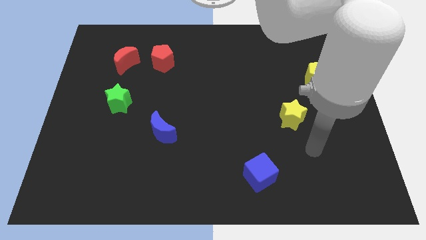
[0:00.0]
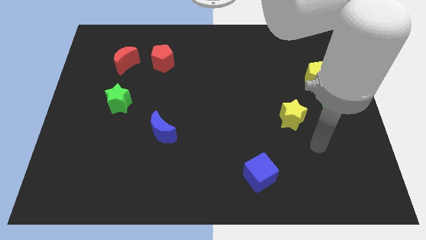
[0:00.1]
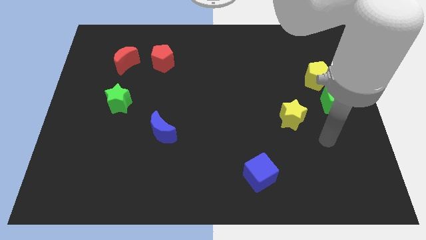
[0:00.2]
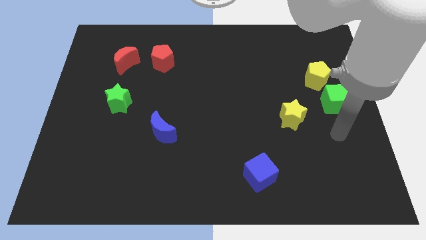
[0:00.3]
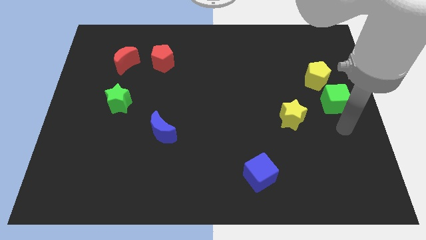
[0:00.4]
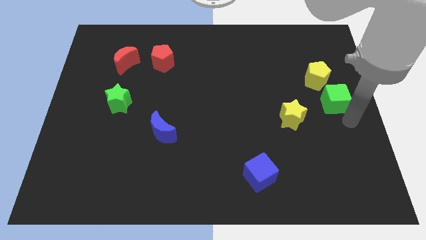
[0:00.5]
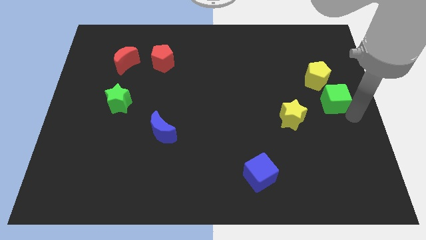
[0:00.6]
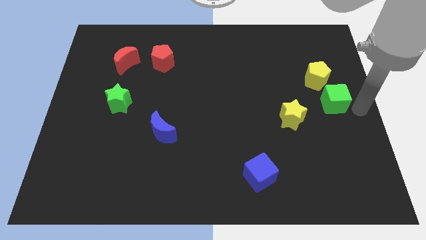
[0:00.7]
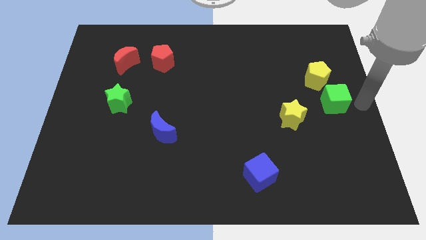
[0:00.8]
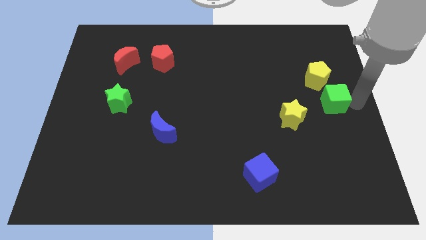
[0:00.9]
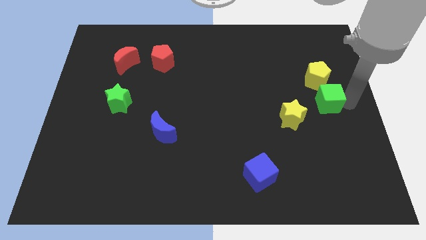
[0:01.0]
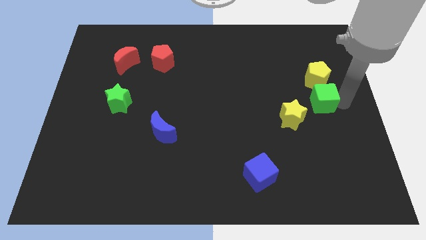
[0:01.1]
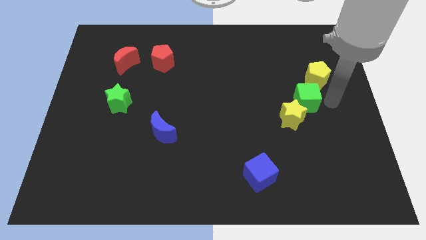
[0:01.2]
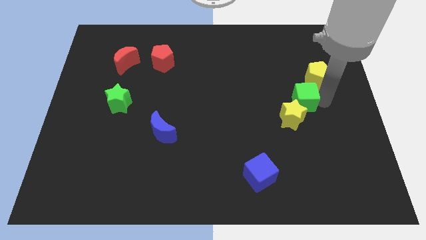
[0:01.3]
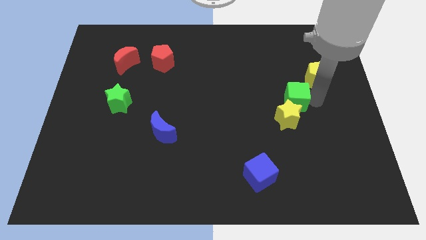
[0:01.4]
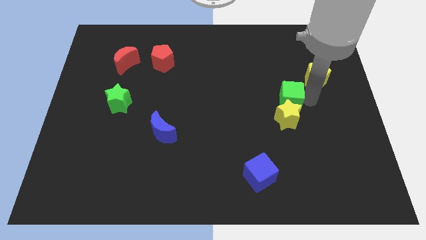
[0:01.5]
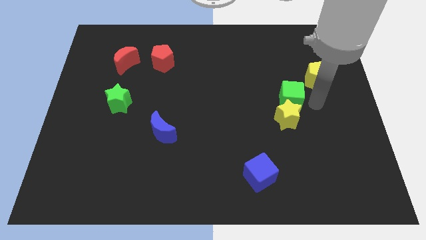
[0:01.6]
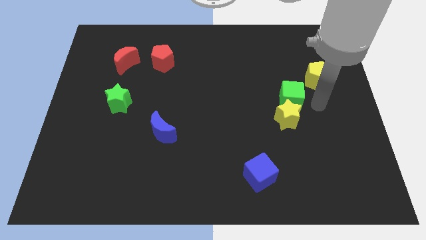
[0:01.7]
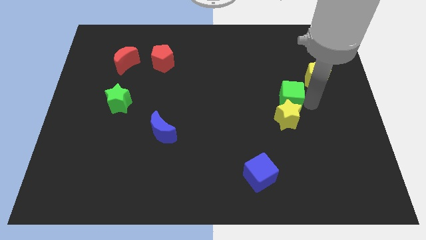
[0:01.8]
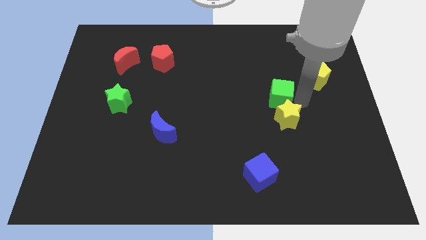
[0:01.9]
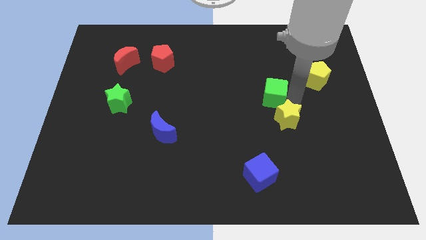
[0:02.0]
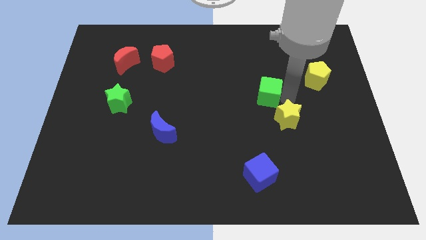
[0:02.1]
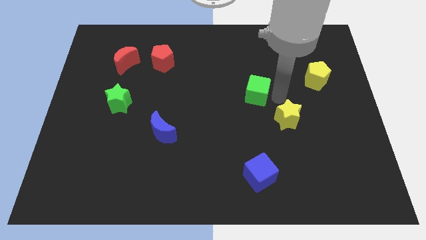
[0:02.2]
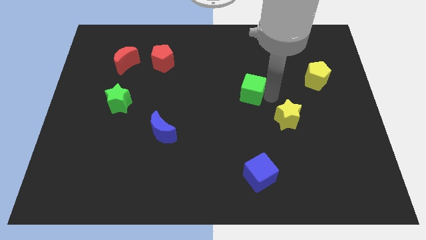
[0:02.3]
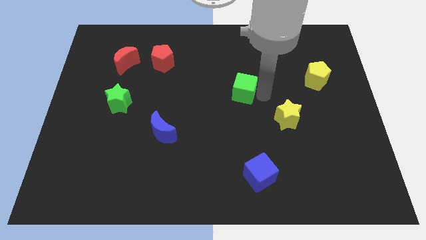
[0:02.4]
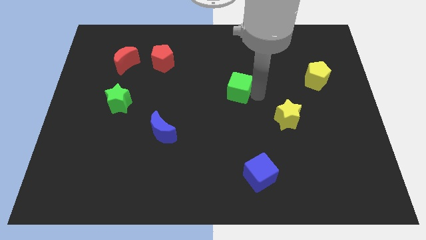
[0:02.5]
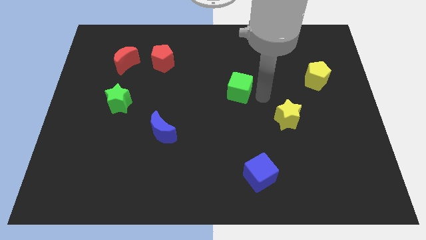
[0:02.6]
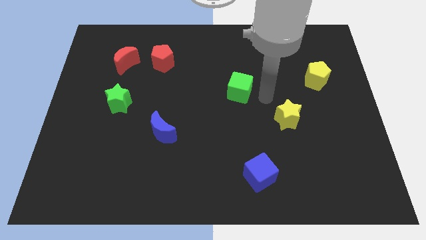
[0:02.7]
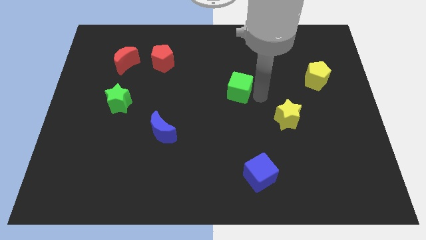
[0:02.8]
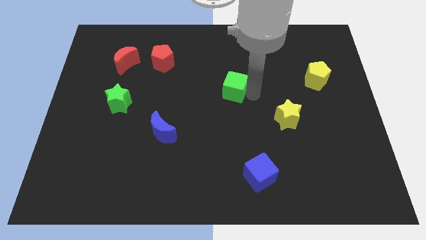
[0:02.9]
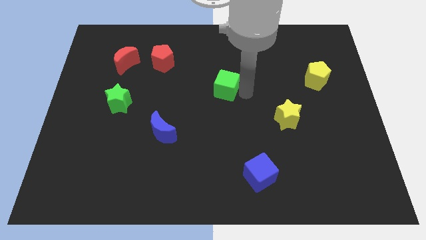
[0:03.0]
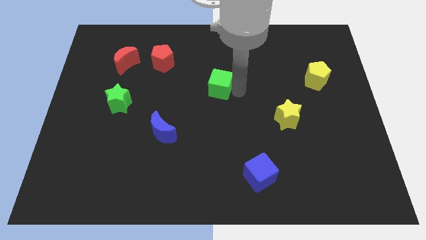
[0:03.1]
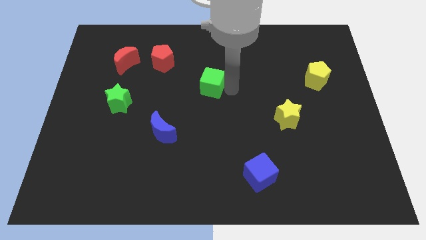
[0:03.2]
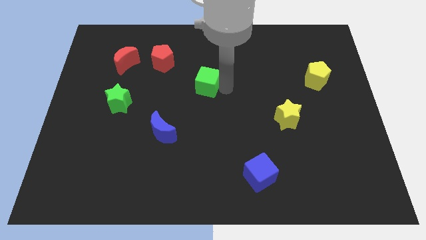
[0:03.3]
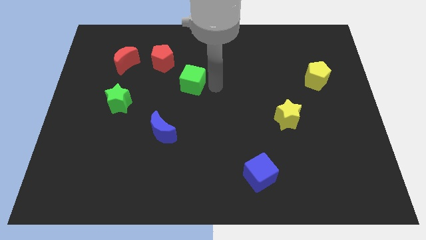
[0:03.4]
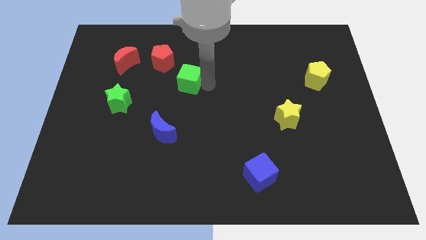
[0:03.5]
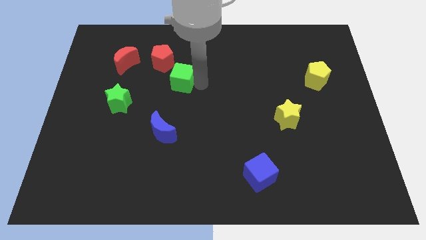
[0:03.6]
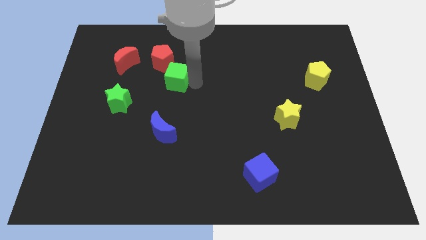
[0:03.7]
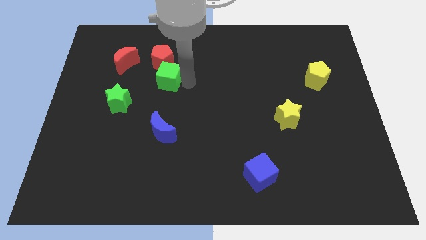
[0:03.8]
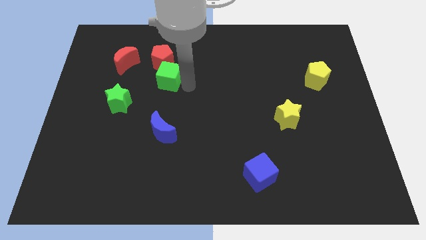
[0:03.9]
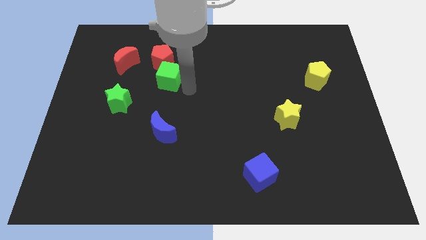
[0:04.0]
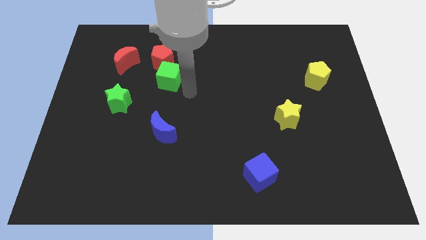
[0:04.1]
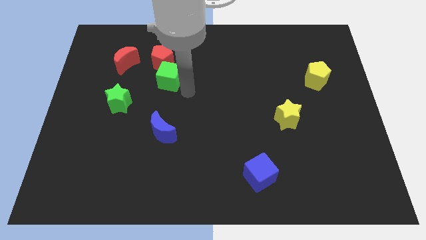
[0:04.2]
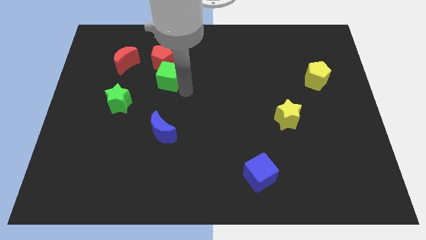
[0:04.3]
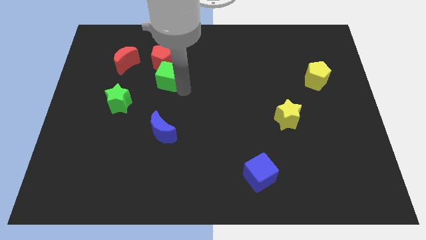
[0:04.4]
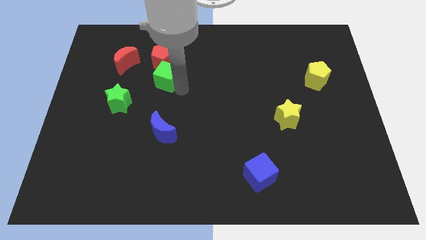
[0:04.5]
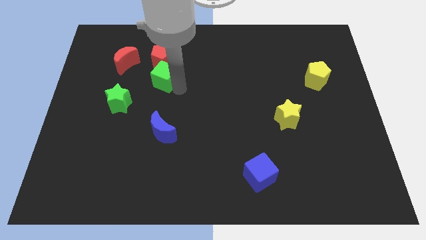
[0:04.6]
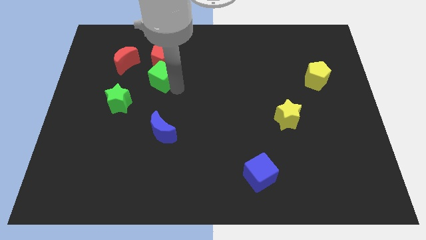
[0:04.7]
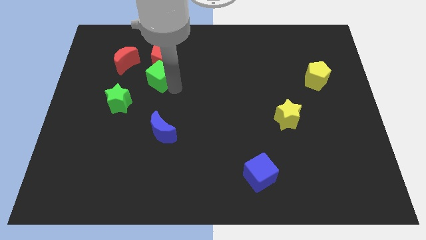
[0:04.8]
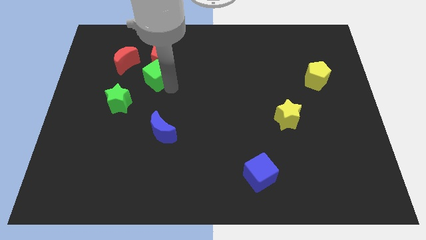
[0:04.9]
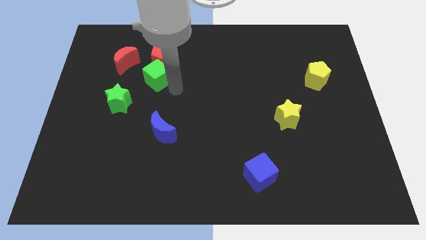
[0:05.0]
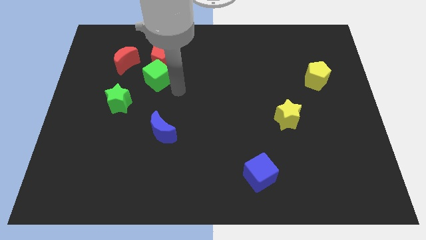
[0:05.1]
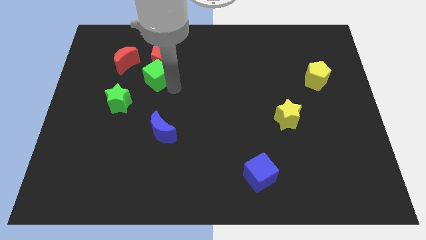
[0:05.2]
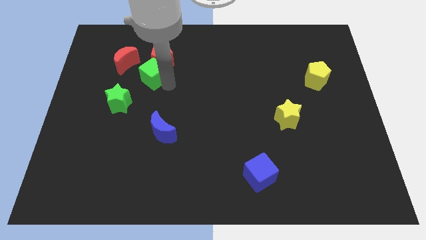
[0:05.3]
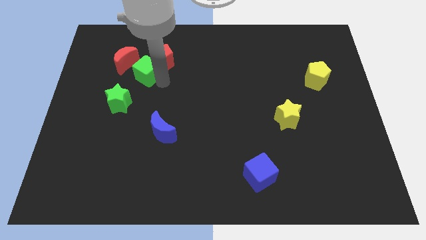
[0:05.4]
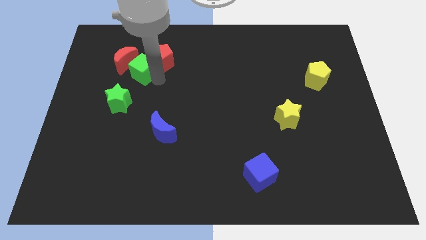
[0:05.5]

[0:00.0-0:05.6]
slide the green cube towards the red moon

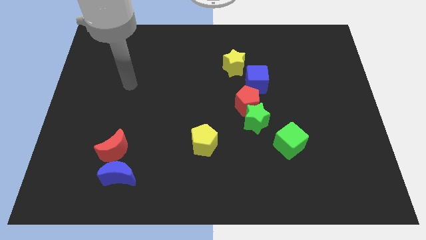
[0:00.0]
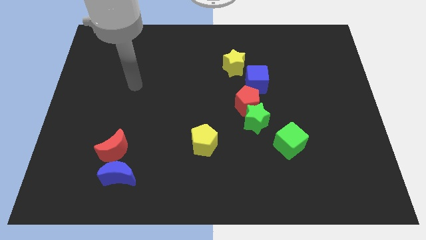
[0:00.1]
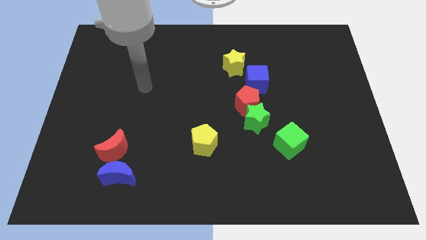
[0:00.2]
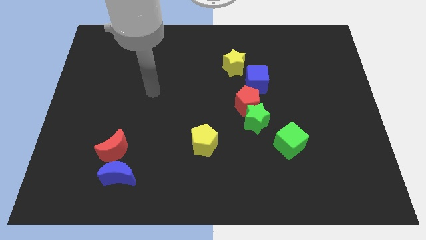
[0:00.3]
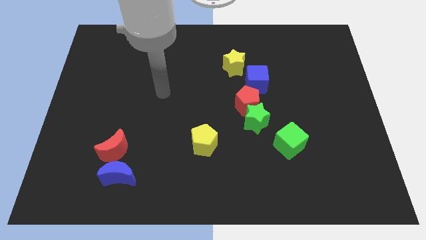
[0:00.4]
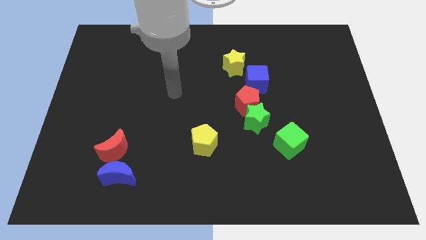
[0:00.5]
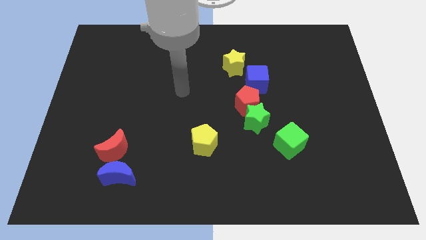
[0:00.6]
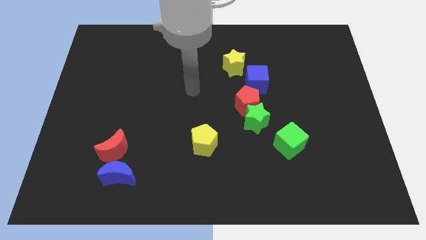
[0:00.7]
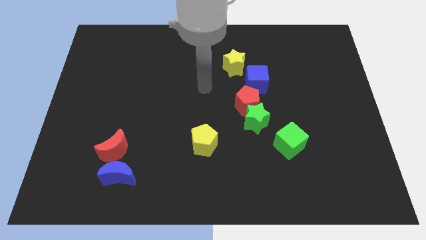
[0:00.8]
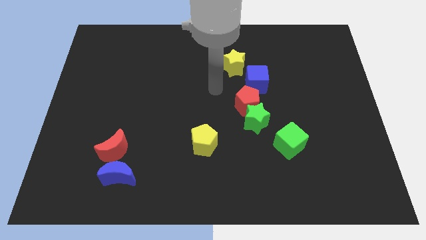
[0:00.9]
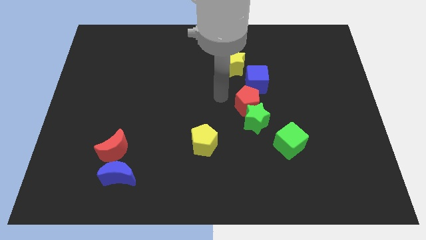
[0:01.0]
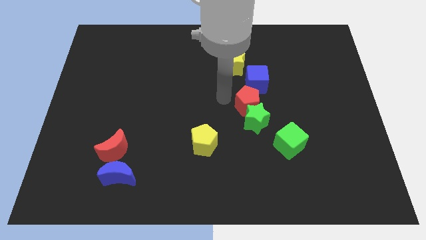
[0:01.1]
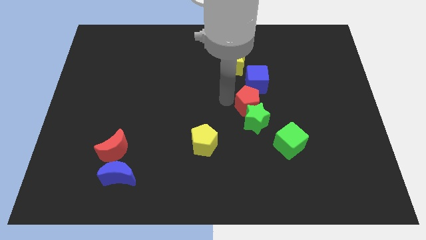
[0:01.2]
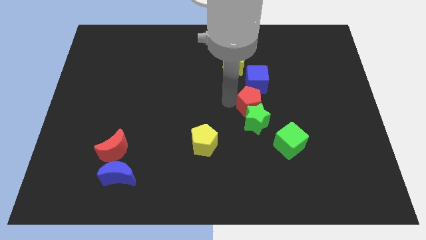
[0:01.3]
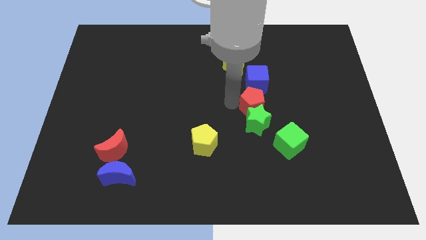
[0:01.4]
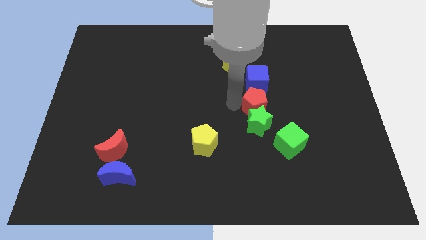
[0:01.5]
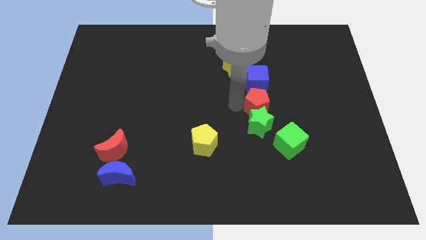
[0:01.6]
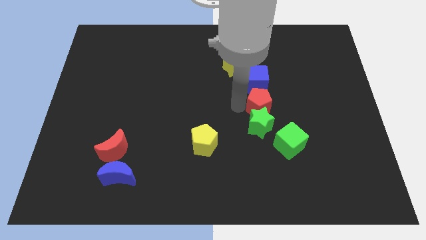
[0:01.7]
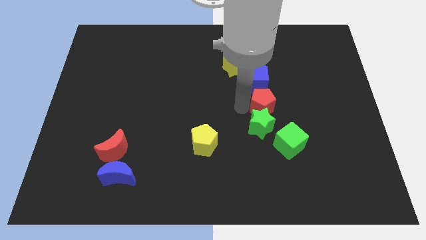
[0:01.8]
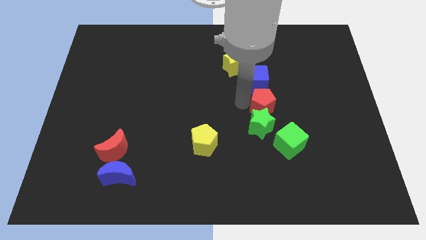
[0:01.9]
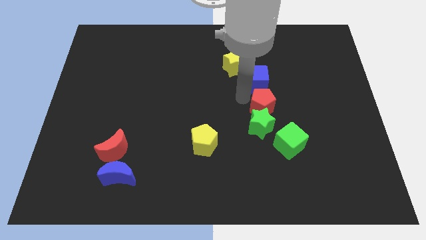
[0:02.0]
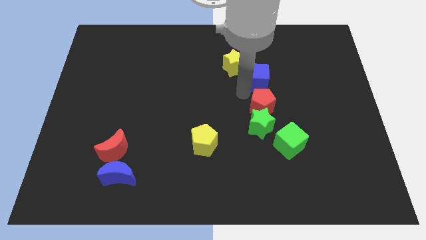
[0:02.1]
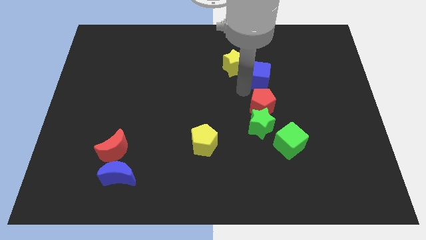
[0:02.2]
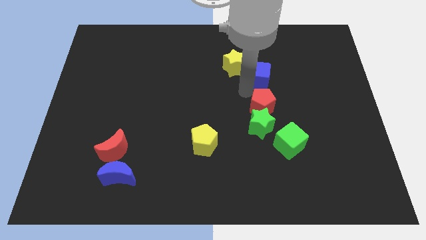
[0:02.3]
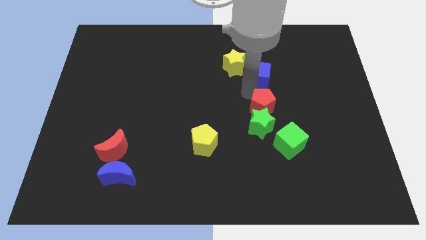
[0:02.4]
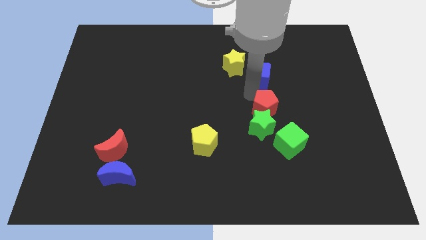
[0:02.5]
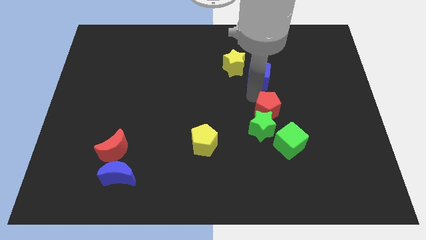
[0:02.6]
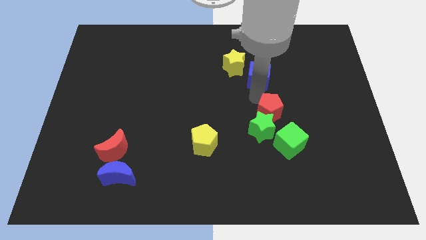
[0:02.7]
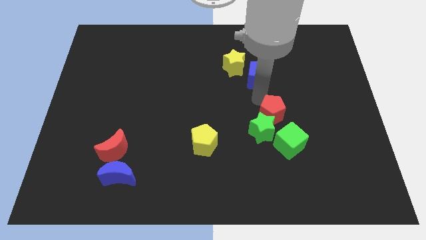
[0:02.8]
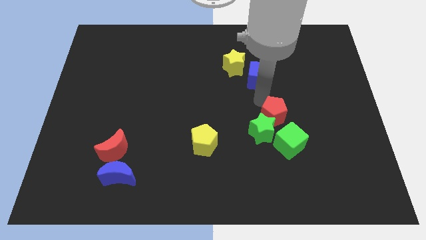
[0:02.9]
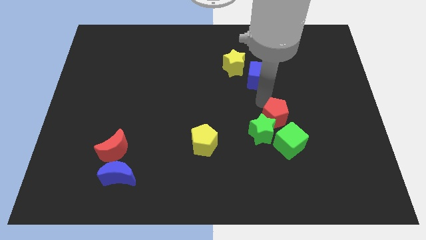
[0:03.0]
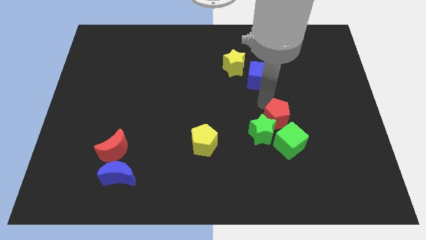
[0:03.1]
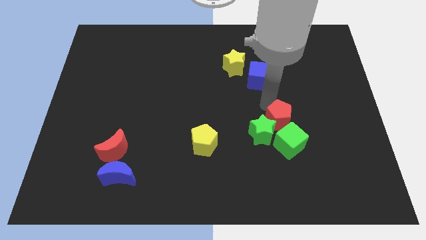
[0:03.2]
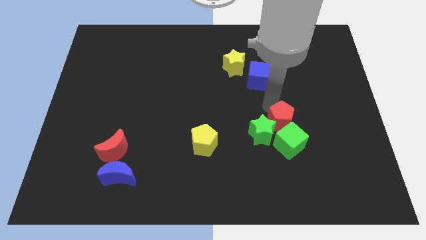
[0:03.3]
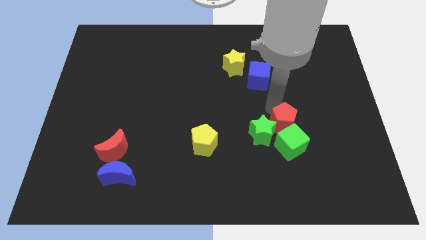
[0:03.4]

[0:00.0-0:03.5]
move the red pentagon next to the green cube
